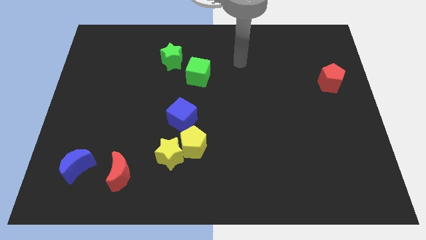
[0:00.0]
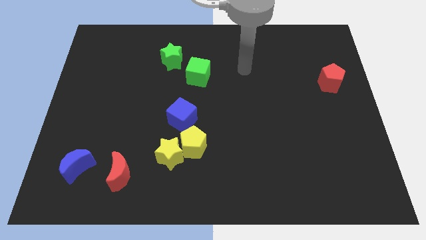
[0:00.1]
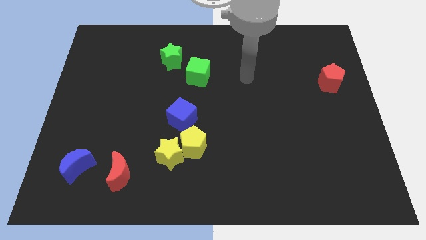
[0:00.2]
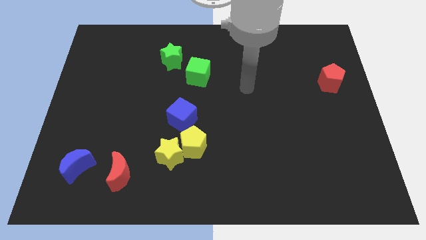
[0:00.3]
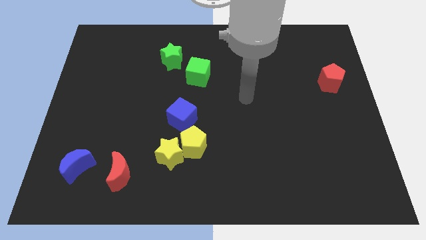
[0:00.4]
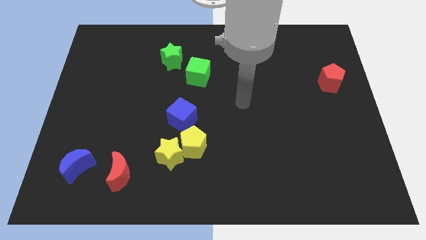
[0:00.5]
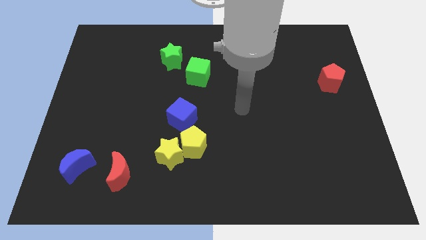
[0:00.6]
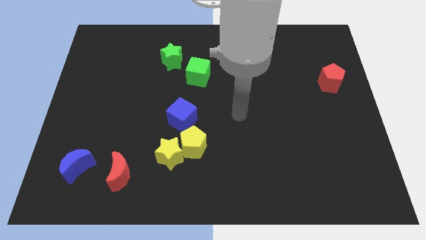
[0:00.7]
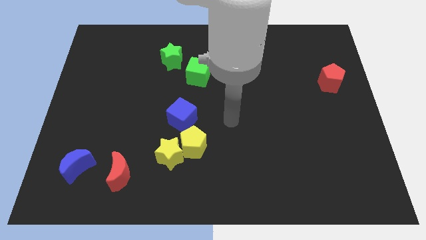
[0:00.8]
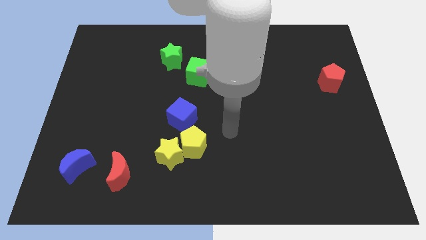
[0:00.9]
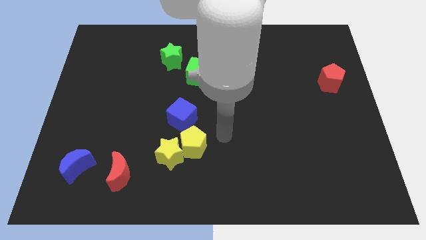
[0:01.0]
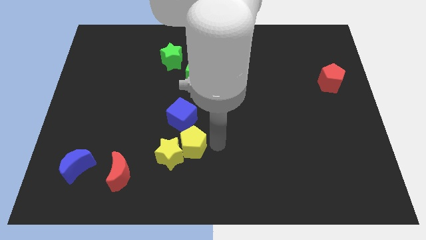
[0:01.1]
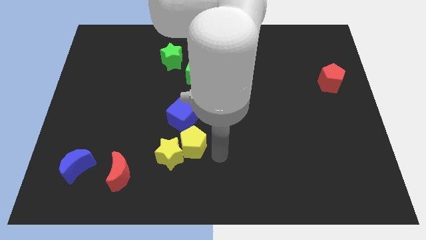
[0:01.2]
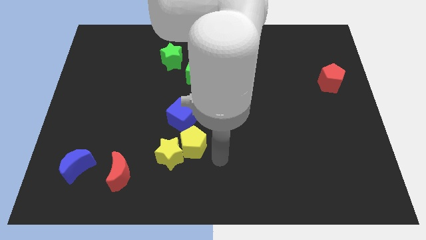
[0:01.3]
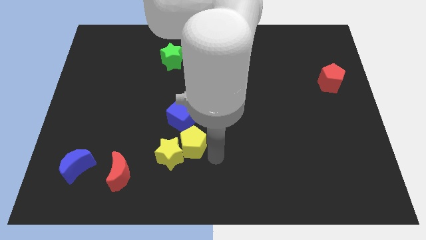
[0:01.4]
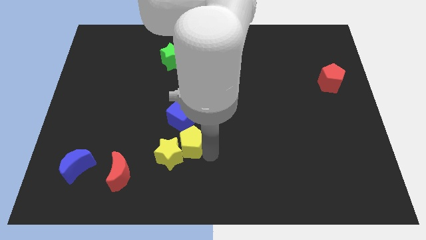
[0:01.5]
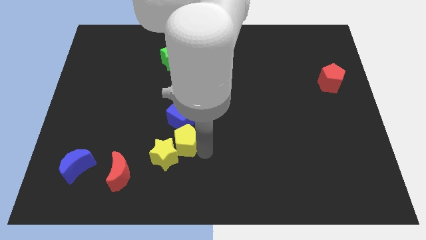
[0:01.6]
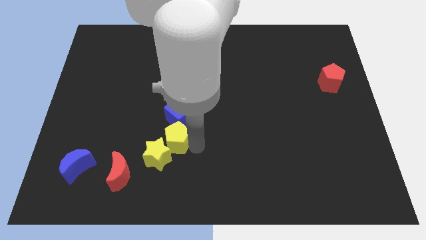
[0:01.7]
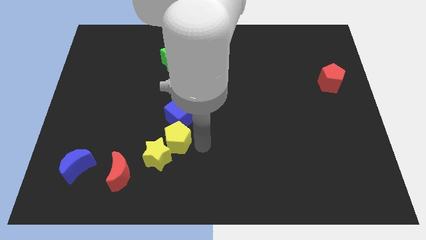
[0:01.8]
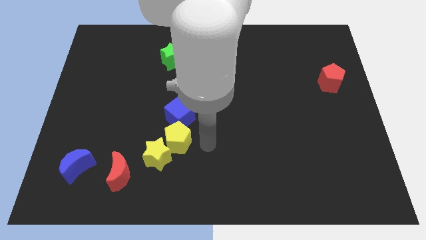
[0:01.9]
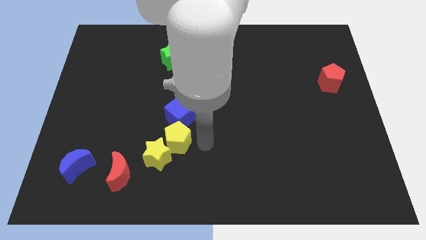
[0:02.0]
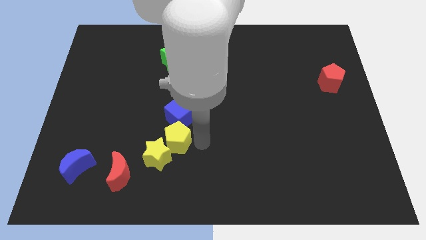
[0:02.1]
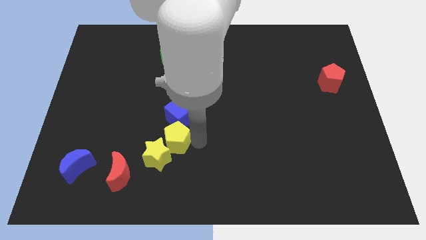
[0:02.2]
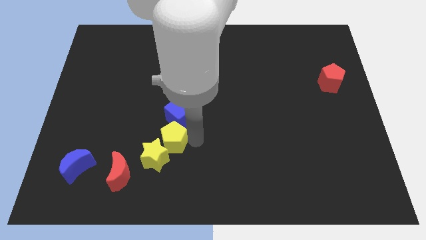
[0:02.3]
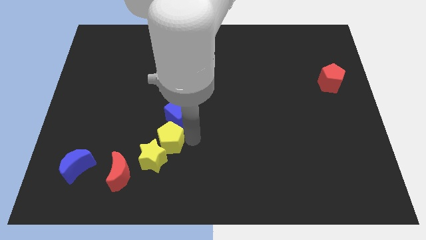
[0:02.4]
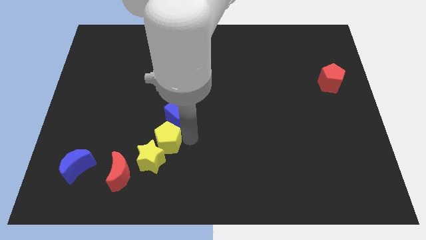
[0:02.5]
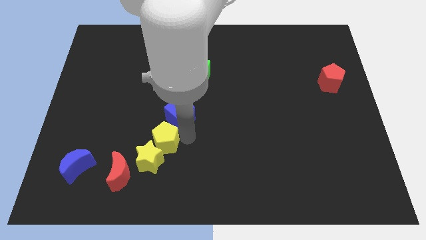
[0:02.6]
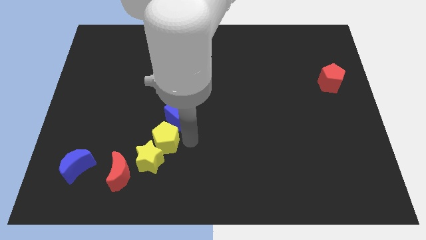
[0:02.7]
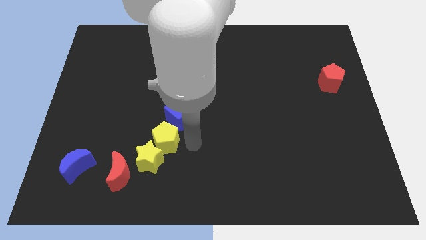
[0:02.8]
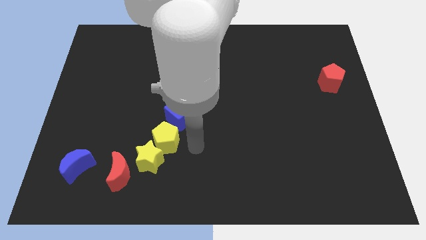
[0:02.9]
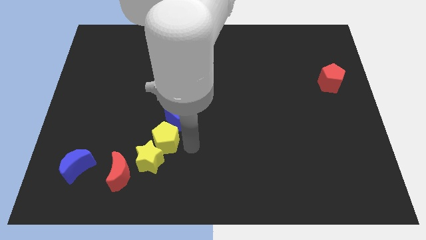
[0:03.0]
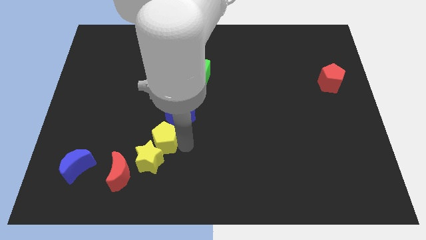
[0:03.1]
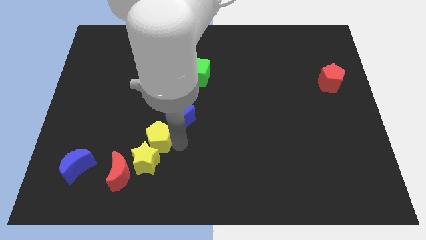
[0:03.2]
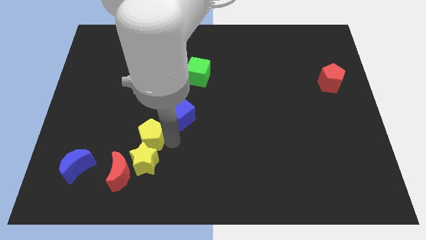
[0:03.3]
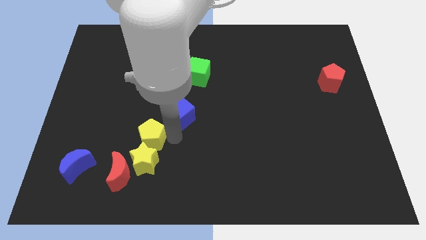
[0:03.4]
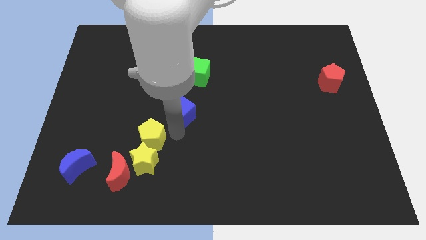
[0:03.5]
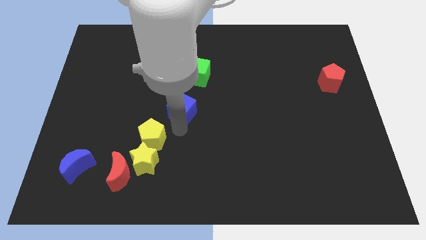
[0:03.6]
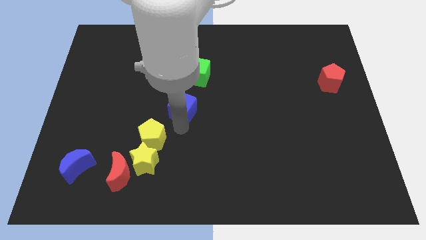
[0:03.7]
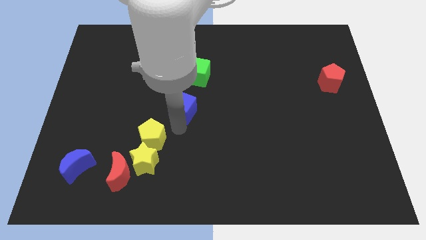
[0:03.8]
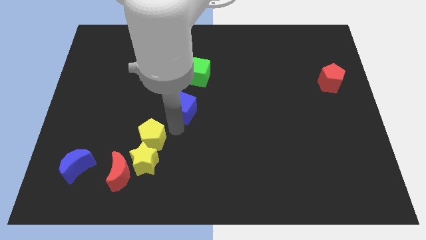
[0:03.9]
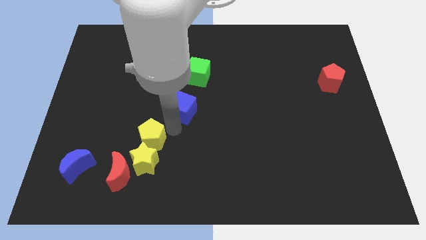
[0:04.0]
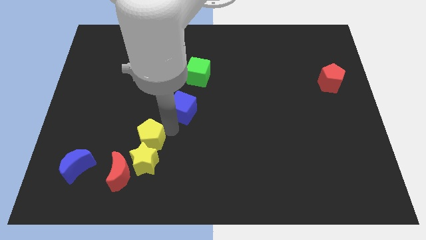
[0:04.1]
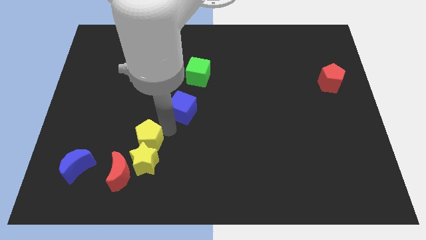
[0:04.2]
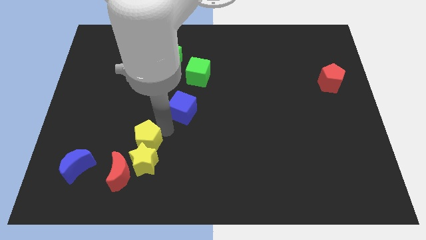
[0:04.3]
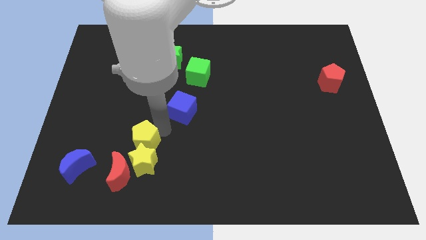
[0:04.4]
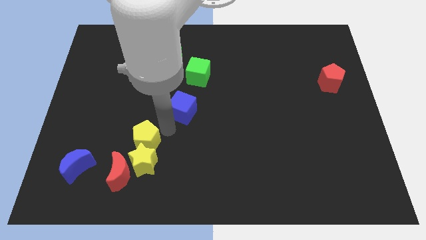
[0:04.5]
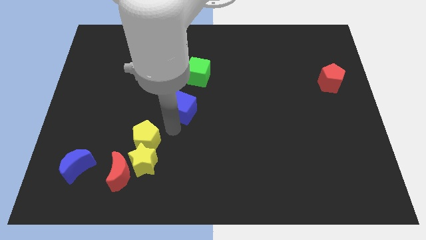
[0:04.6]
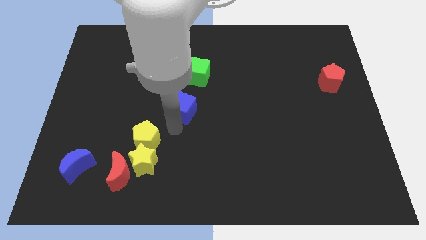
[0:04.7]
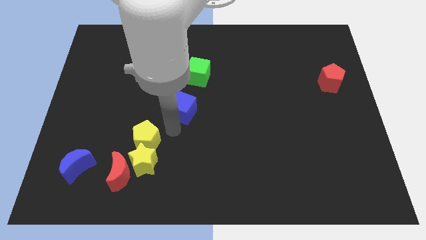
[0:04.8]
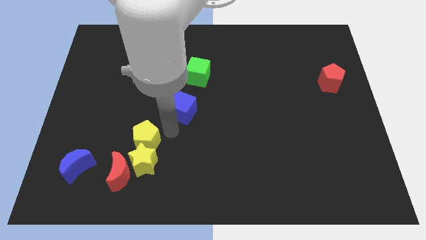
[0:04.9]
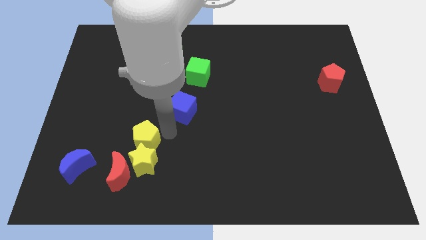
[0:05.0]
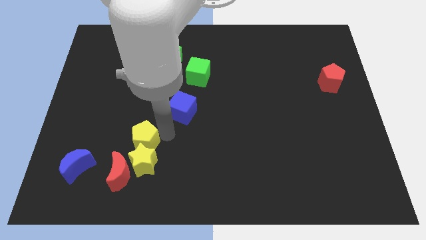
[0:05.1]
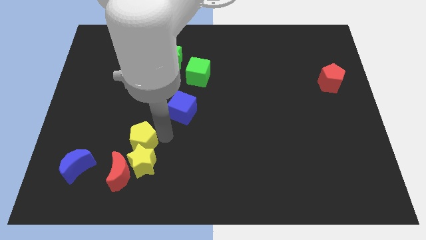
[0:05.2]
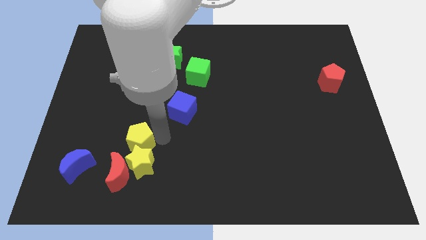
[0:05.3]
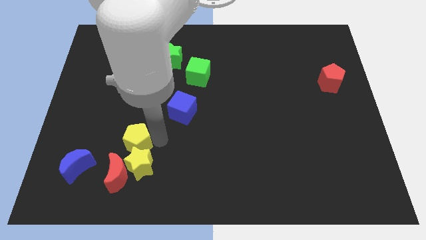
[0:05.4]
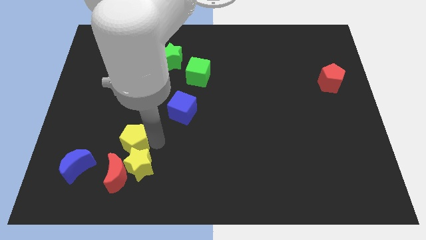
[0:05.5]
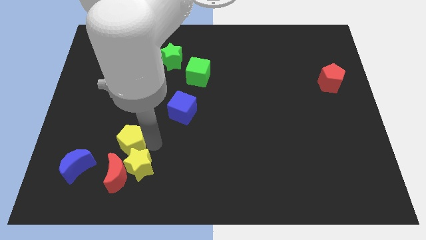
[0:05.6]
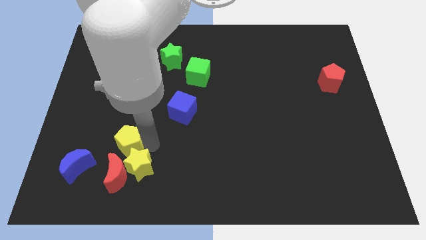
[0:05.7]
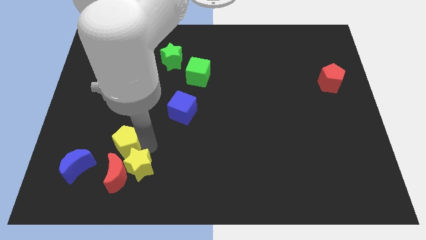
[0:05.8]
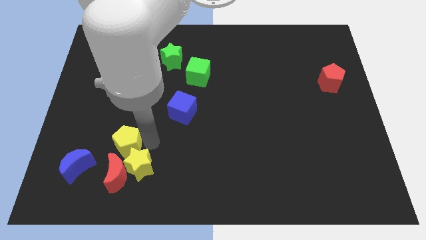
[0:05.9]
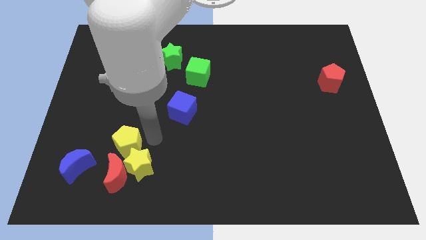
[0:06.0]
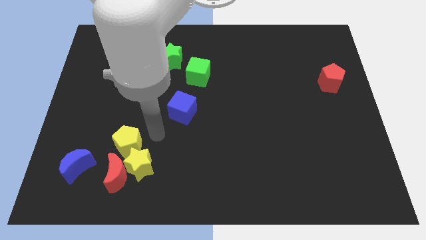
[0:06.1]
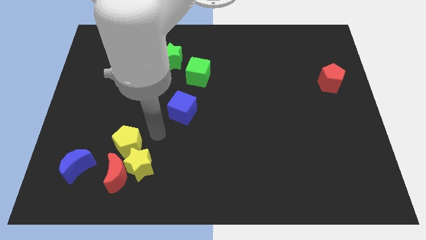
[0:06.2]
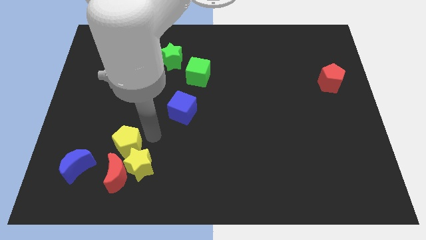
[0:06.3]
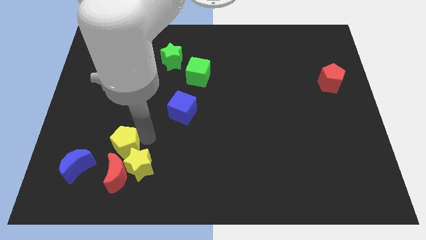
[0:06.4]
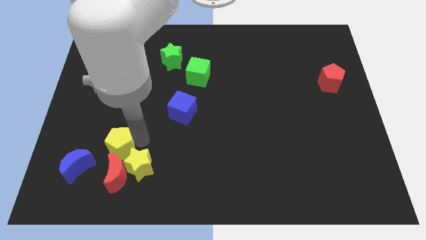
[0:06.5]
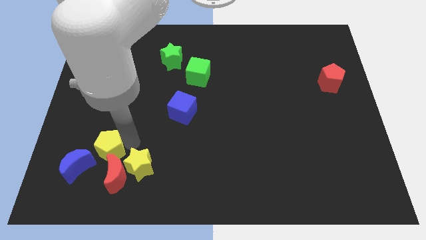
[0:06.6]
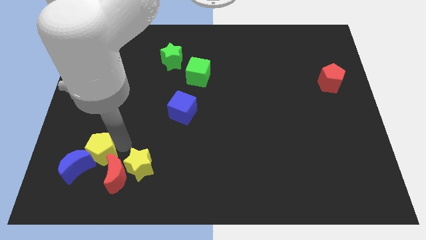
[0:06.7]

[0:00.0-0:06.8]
slide the yellow pentagon next to the blue moon
